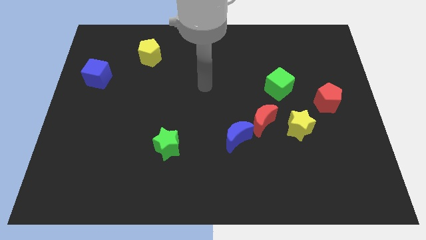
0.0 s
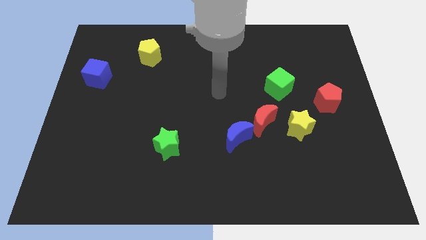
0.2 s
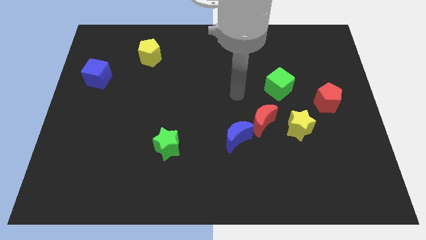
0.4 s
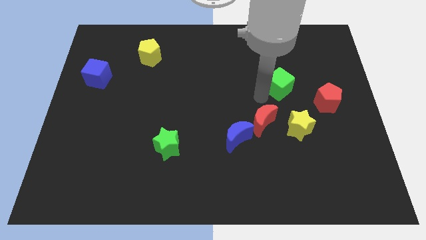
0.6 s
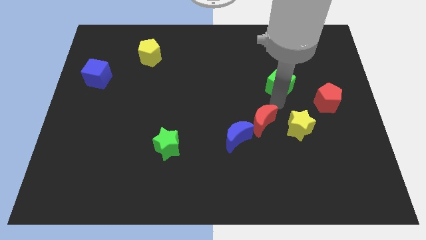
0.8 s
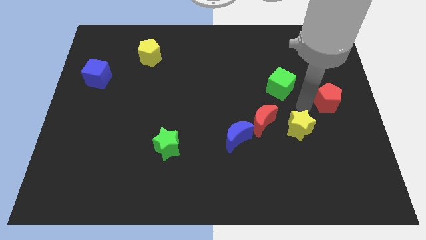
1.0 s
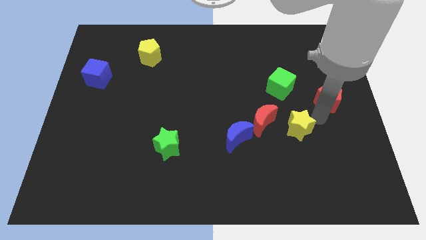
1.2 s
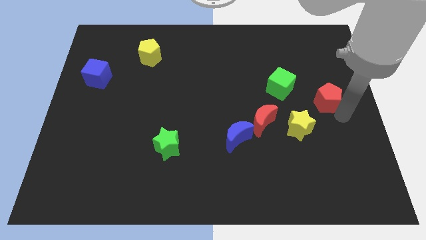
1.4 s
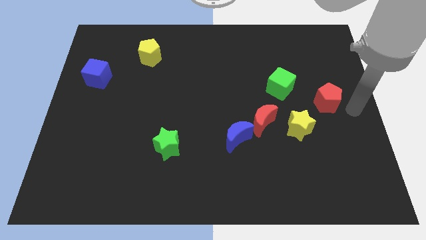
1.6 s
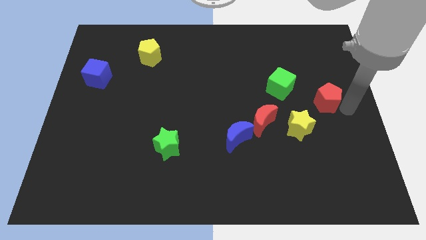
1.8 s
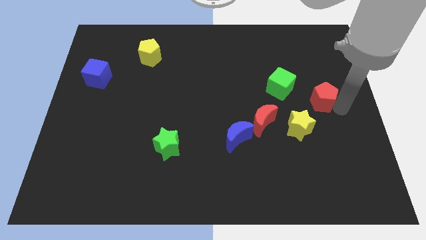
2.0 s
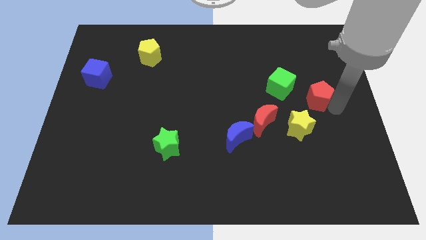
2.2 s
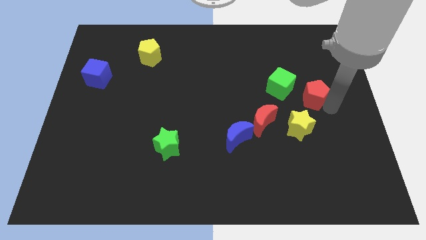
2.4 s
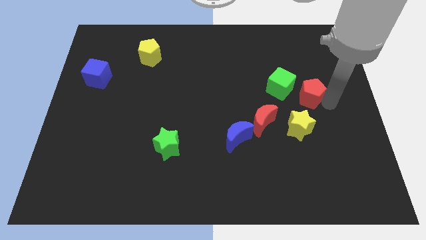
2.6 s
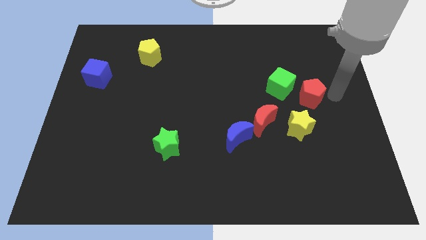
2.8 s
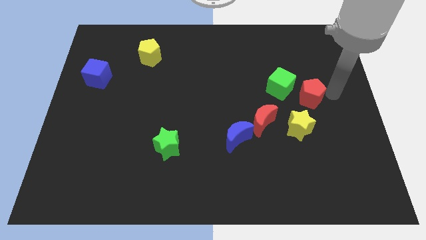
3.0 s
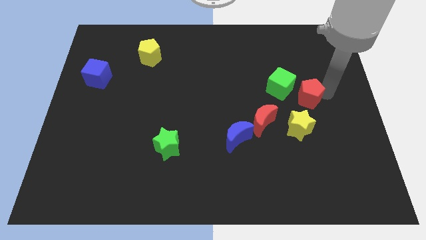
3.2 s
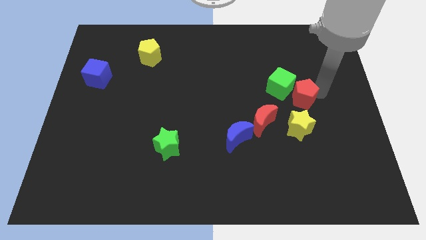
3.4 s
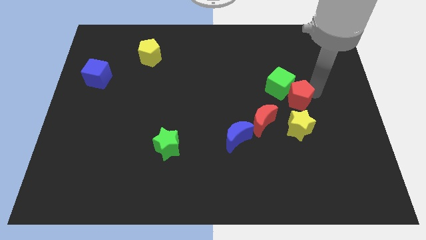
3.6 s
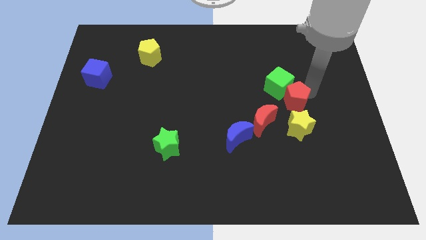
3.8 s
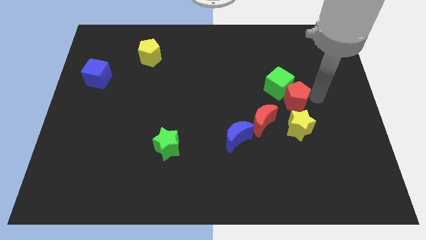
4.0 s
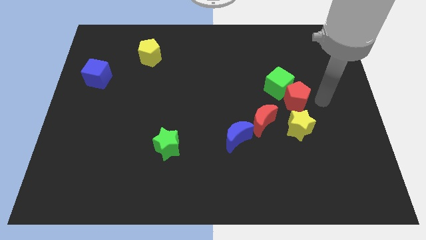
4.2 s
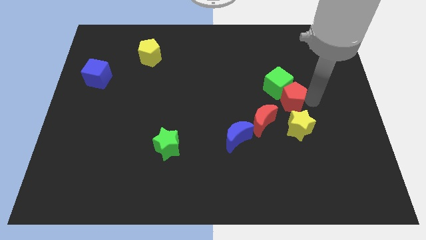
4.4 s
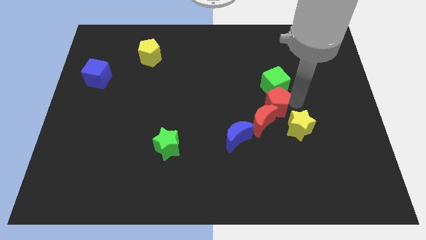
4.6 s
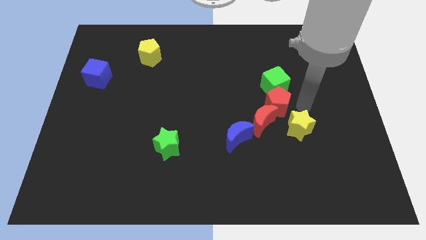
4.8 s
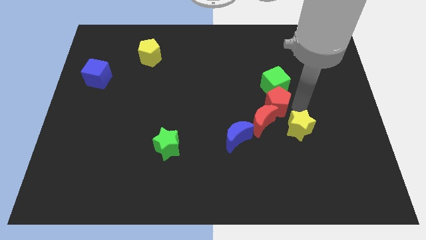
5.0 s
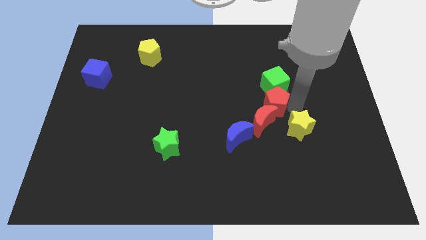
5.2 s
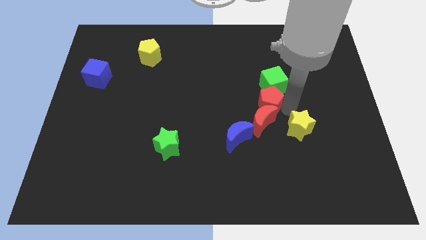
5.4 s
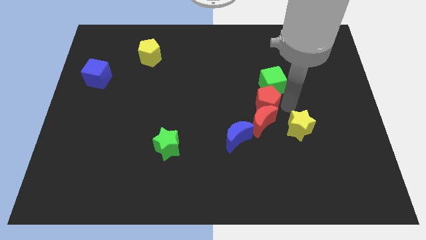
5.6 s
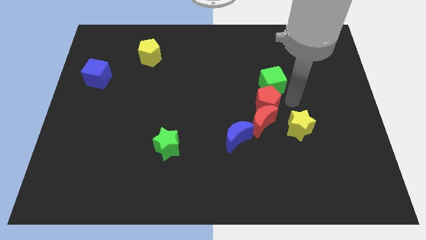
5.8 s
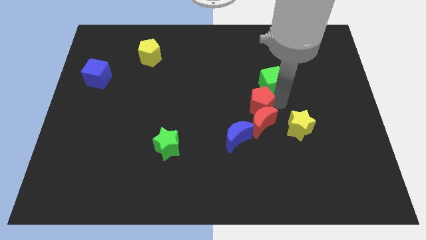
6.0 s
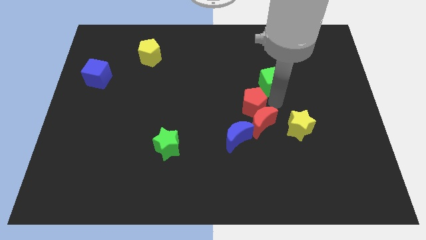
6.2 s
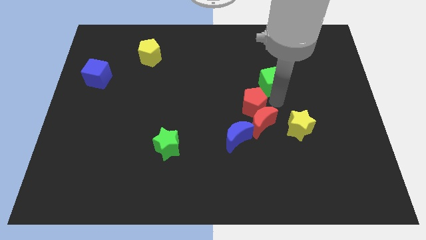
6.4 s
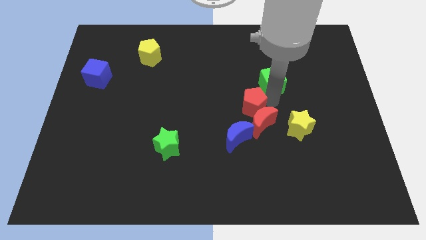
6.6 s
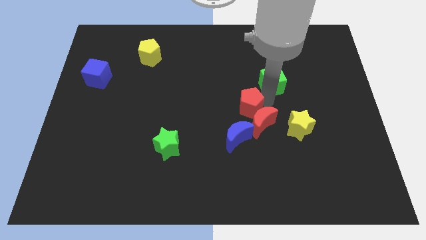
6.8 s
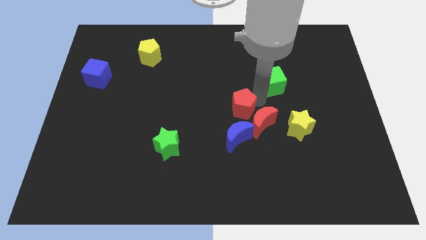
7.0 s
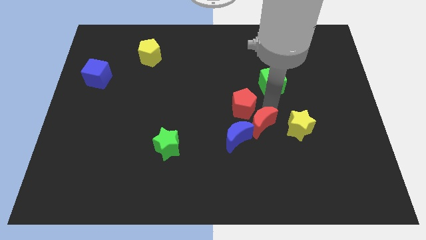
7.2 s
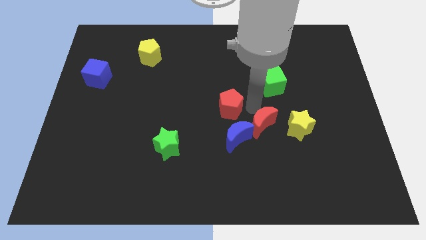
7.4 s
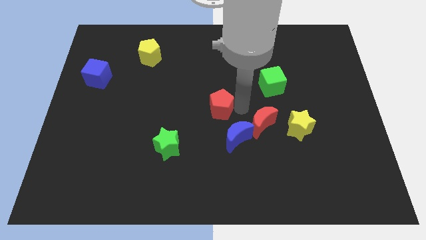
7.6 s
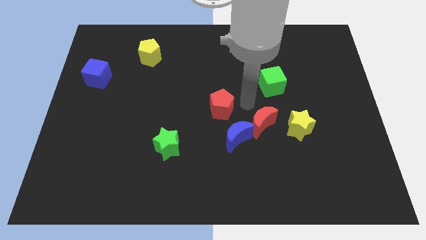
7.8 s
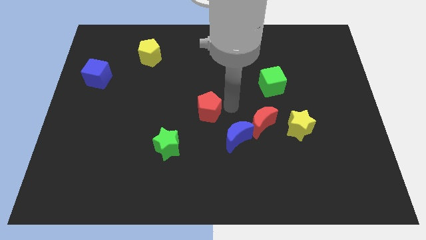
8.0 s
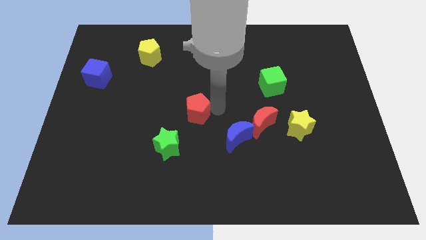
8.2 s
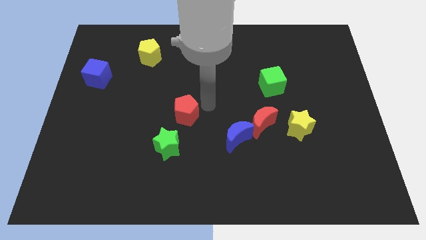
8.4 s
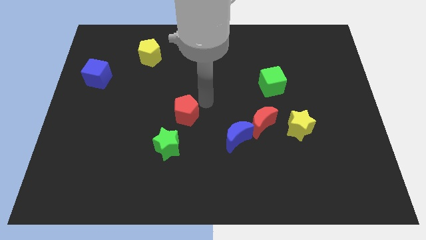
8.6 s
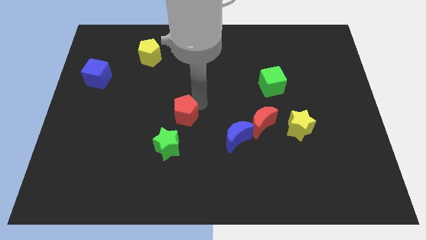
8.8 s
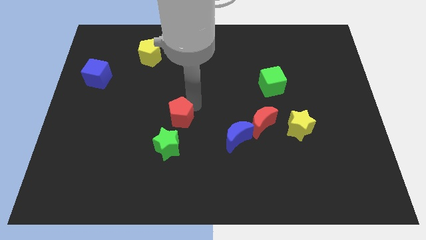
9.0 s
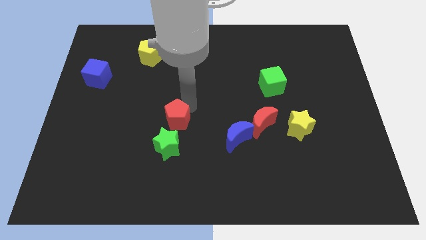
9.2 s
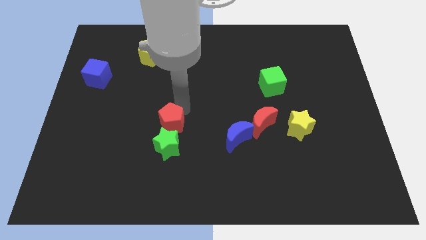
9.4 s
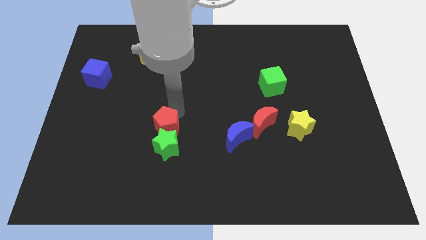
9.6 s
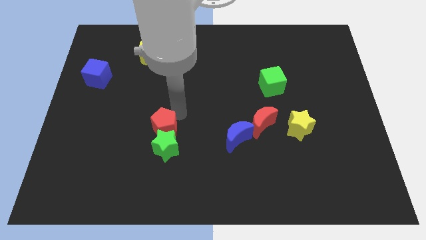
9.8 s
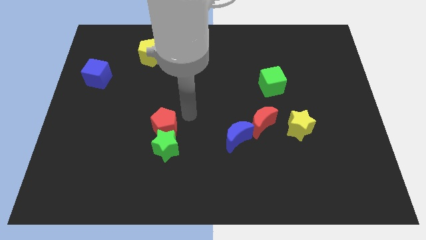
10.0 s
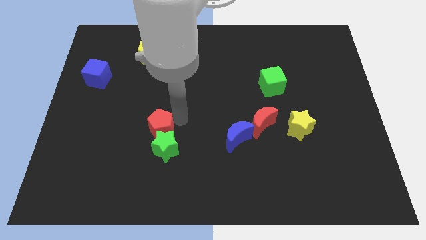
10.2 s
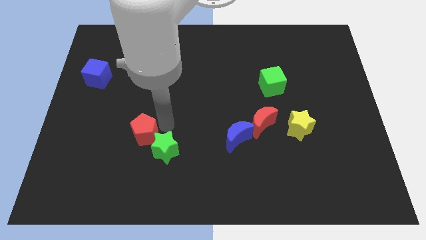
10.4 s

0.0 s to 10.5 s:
push the red pentagon to the left side of the green star

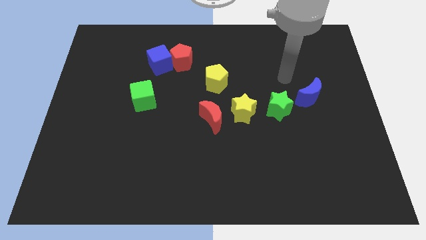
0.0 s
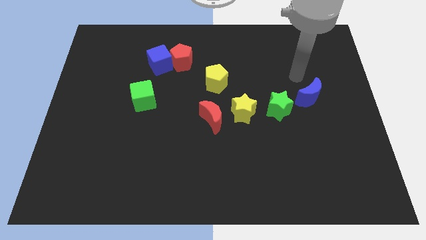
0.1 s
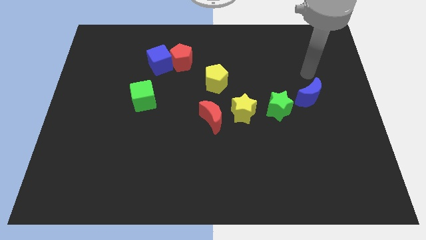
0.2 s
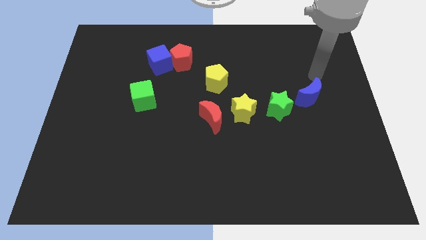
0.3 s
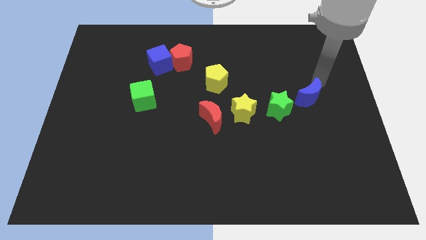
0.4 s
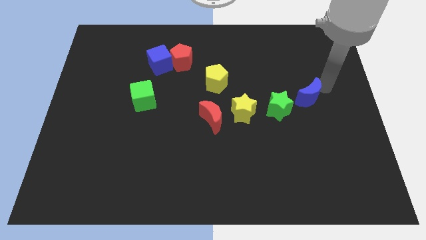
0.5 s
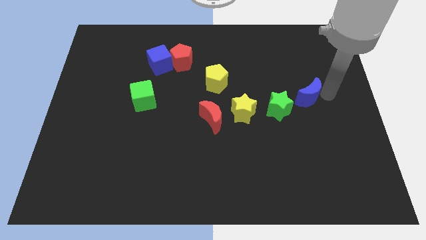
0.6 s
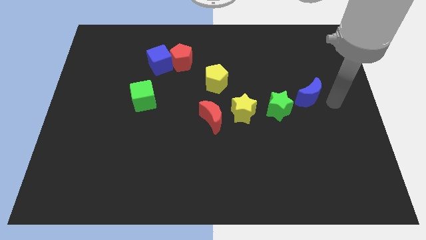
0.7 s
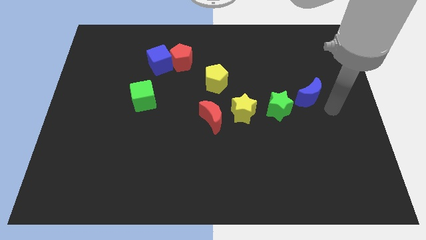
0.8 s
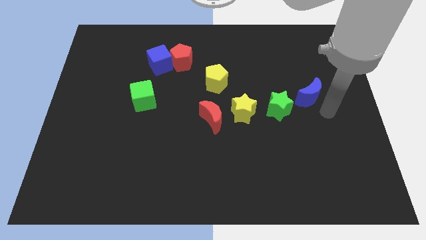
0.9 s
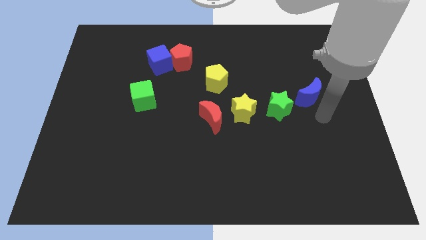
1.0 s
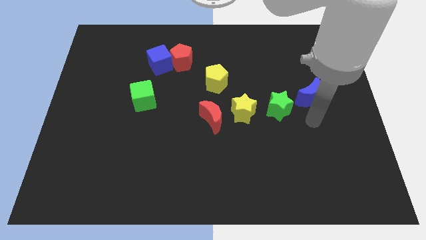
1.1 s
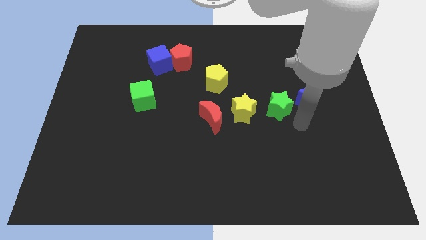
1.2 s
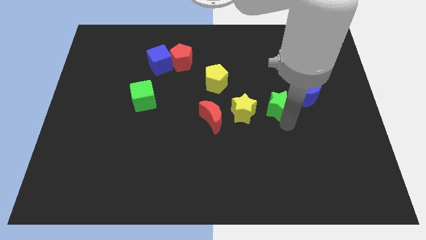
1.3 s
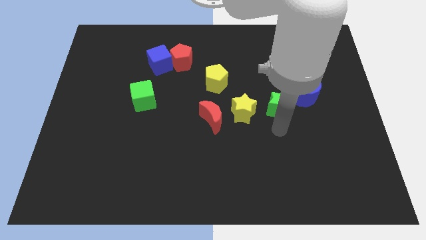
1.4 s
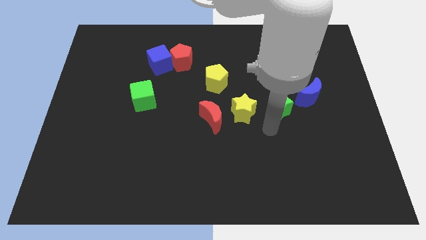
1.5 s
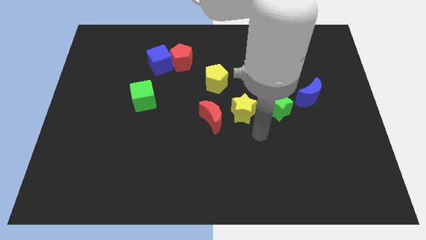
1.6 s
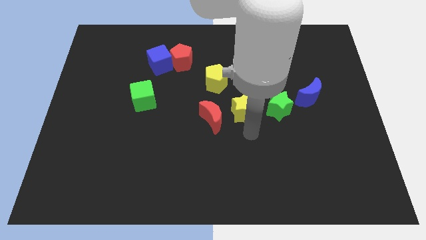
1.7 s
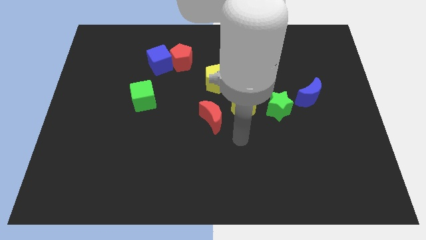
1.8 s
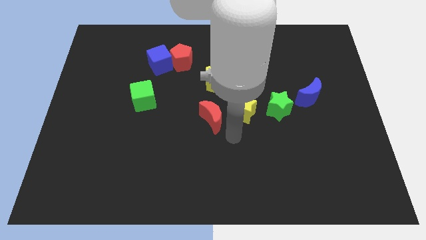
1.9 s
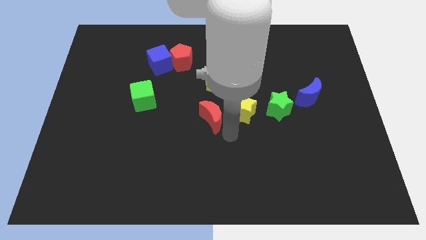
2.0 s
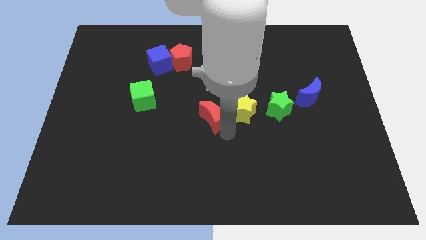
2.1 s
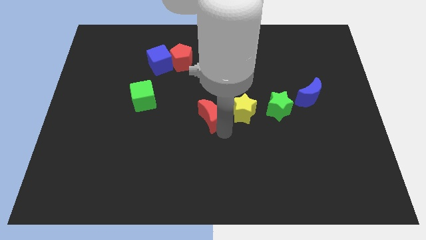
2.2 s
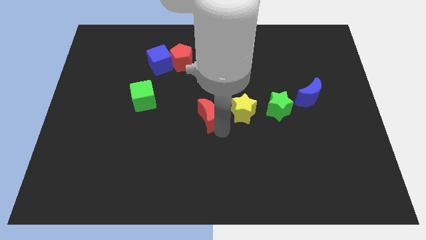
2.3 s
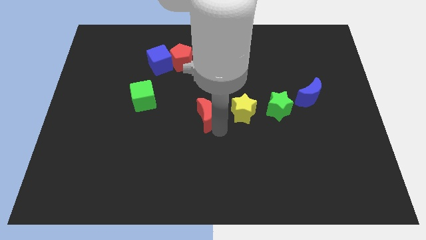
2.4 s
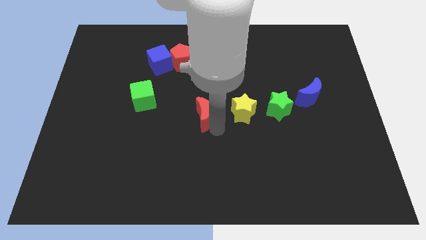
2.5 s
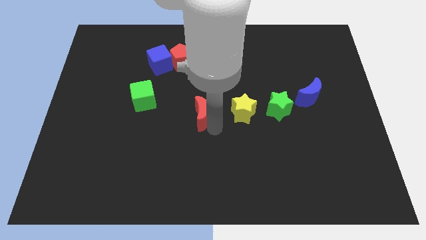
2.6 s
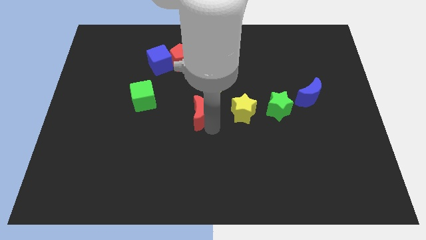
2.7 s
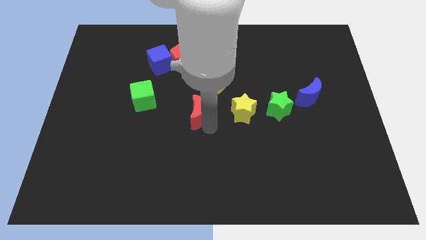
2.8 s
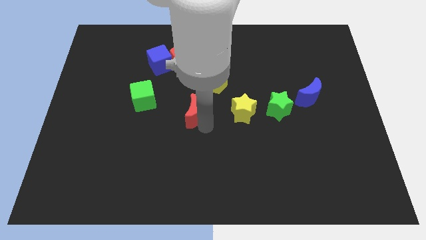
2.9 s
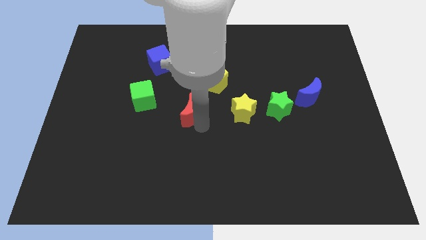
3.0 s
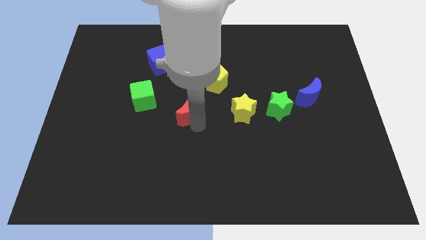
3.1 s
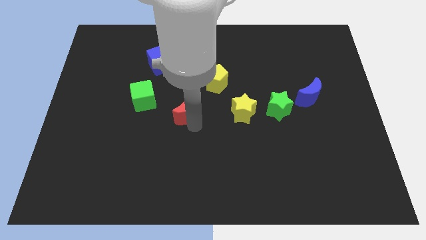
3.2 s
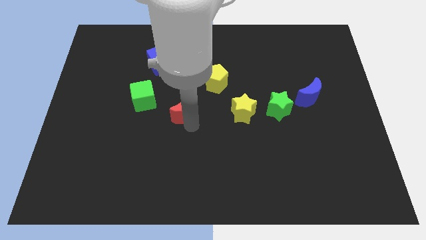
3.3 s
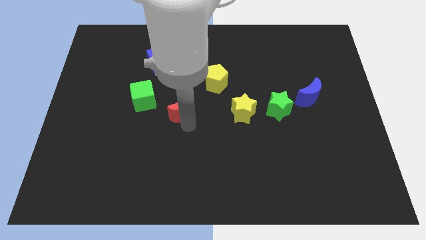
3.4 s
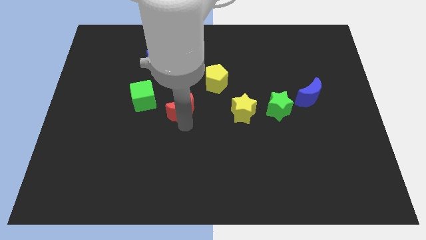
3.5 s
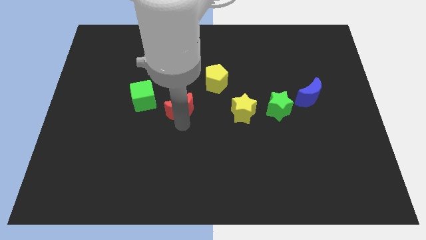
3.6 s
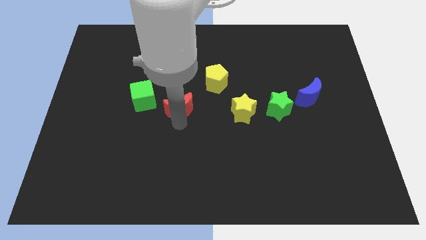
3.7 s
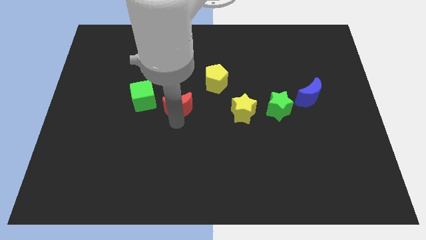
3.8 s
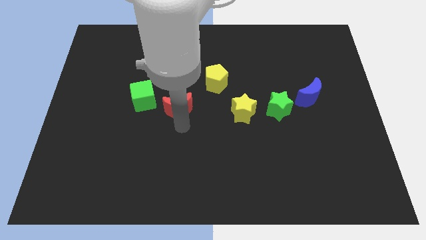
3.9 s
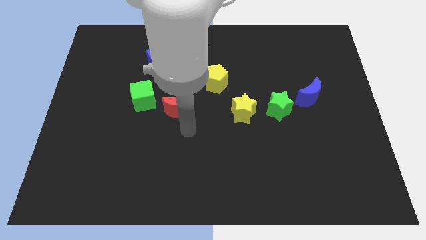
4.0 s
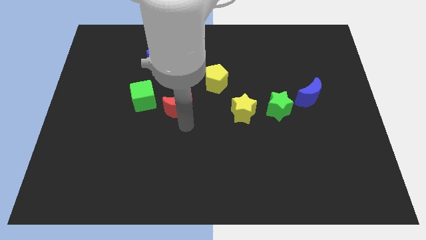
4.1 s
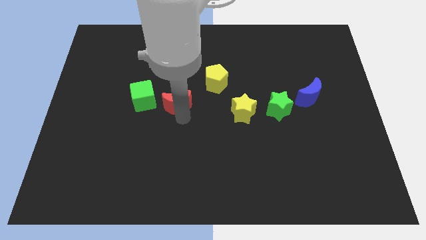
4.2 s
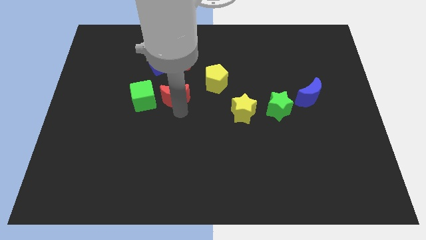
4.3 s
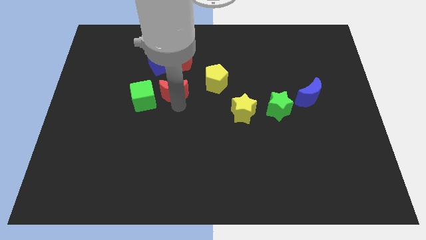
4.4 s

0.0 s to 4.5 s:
move the red moon to the top right of the green cube
